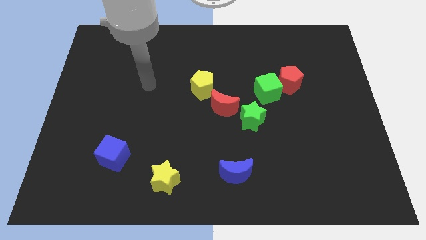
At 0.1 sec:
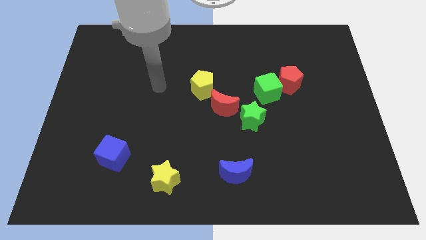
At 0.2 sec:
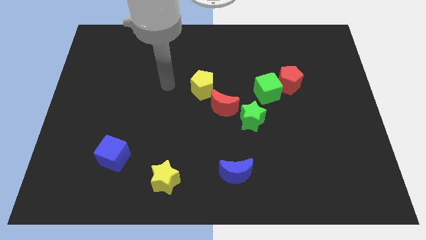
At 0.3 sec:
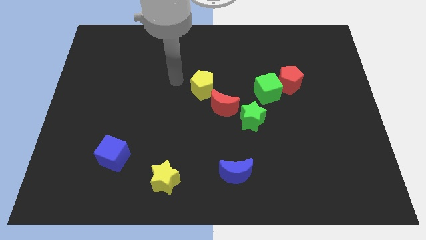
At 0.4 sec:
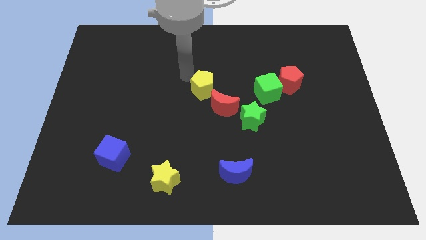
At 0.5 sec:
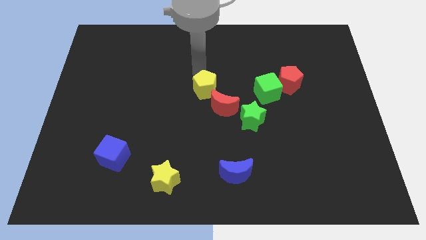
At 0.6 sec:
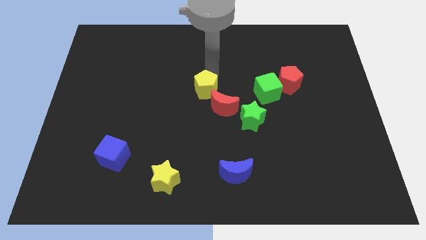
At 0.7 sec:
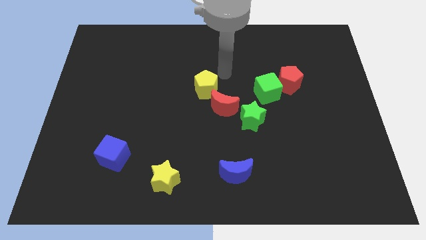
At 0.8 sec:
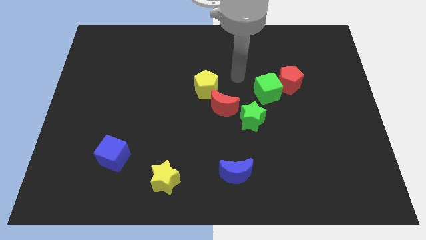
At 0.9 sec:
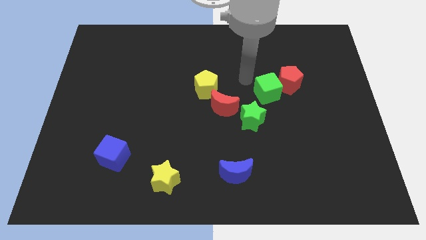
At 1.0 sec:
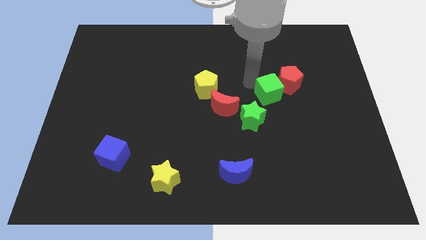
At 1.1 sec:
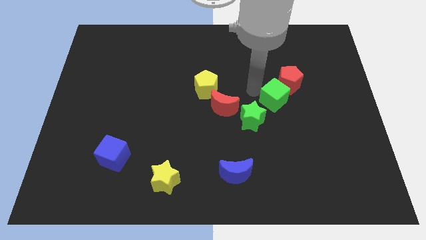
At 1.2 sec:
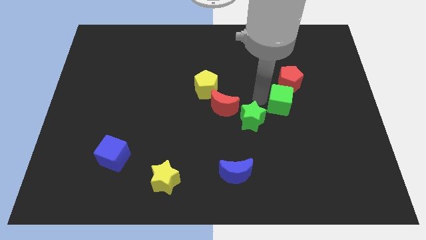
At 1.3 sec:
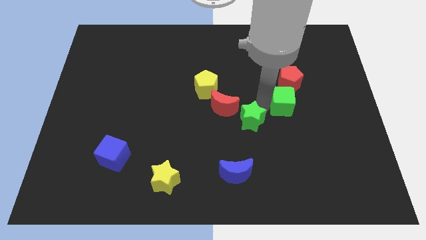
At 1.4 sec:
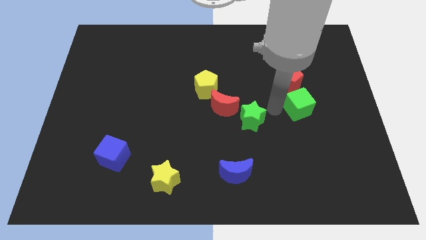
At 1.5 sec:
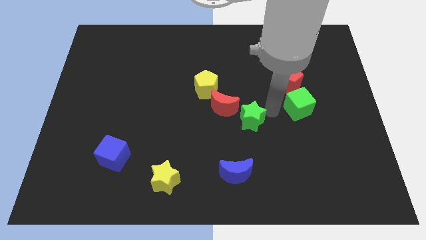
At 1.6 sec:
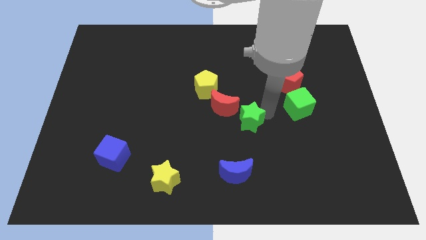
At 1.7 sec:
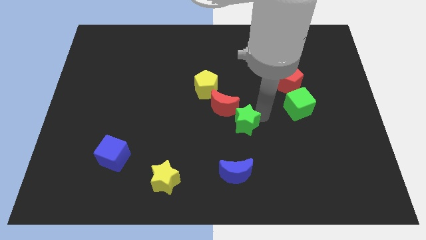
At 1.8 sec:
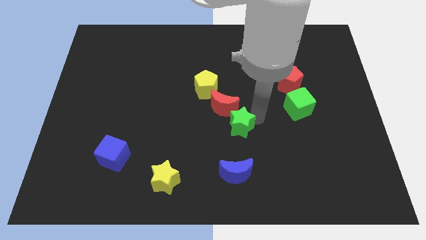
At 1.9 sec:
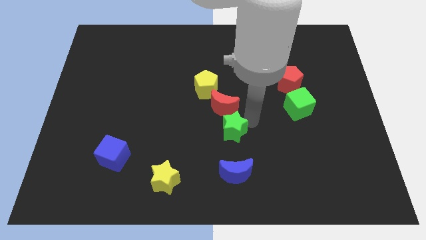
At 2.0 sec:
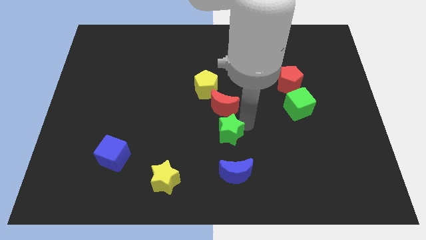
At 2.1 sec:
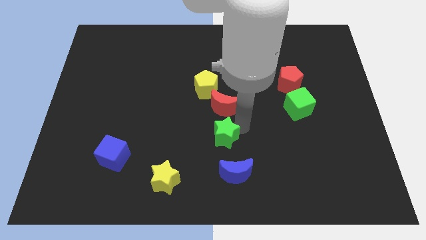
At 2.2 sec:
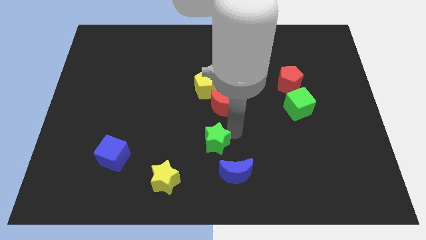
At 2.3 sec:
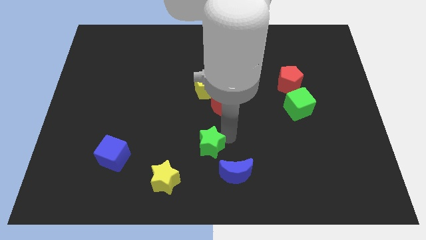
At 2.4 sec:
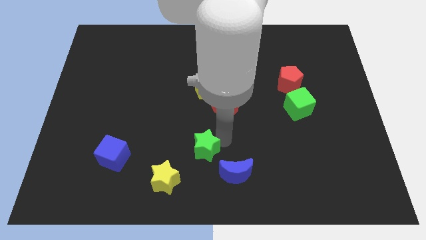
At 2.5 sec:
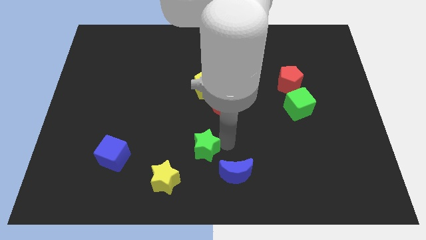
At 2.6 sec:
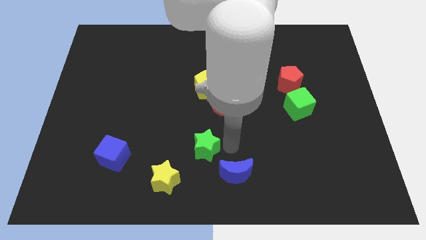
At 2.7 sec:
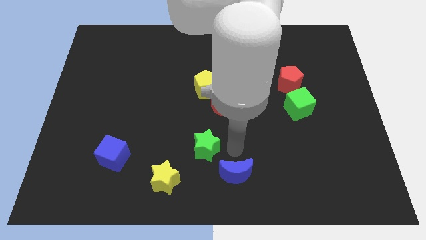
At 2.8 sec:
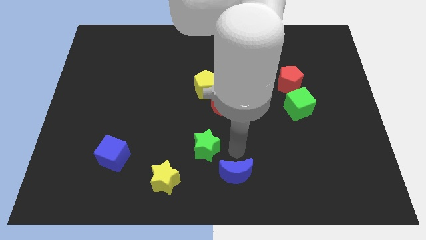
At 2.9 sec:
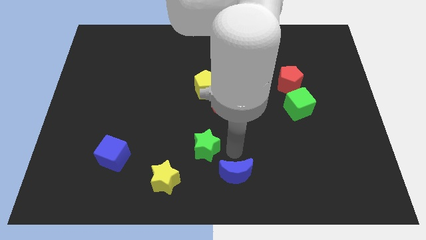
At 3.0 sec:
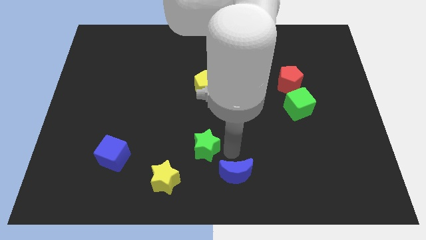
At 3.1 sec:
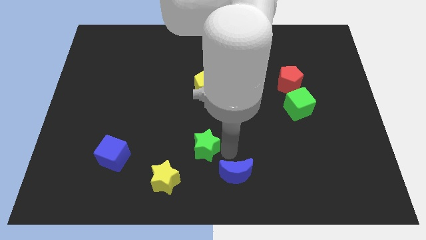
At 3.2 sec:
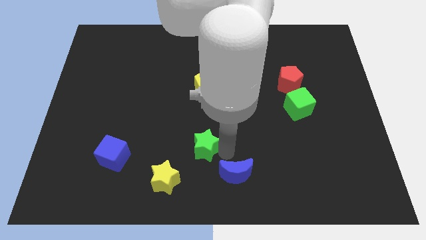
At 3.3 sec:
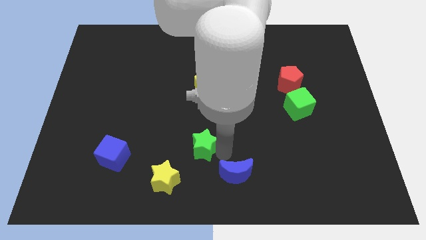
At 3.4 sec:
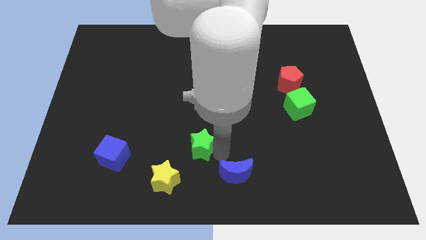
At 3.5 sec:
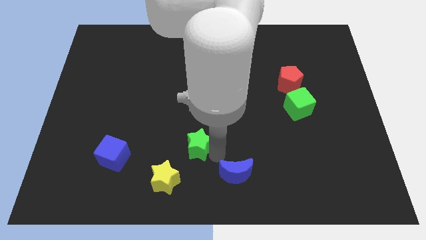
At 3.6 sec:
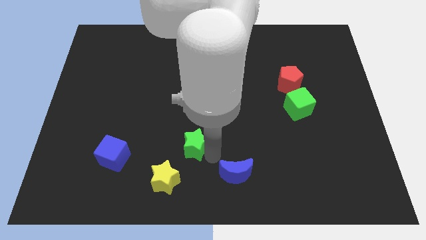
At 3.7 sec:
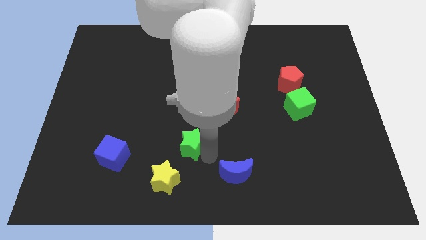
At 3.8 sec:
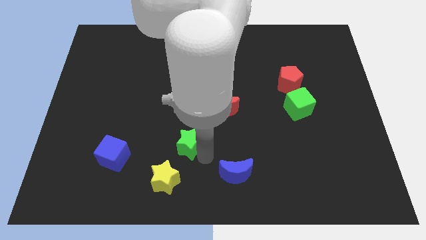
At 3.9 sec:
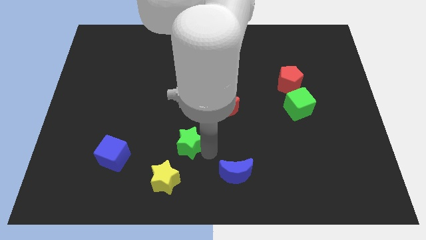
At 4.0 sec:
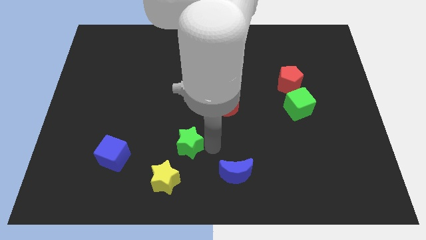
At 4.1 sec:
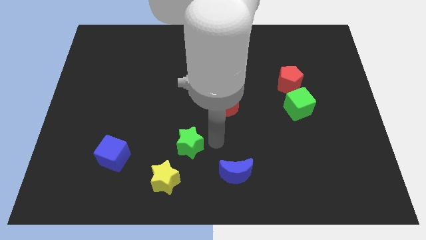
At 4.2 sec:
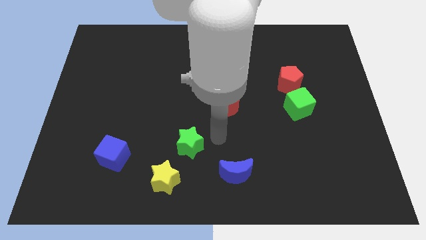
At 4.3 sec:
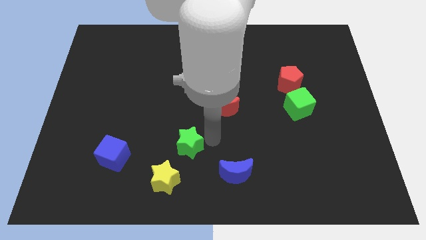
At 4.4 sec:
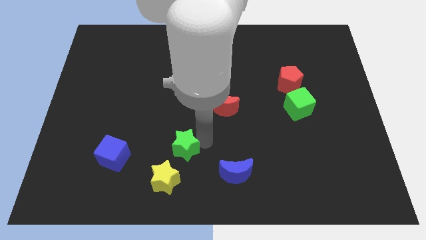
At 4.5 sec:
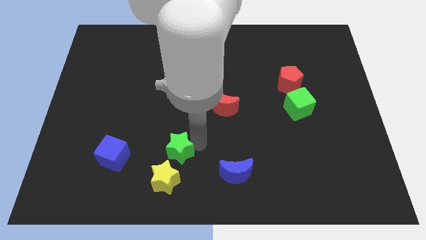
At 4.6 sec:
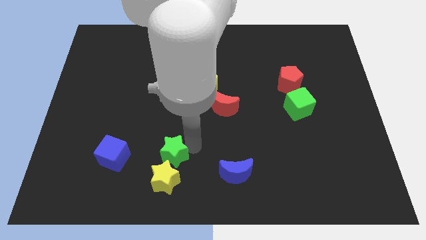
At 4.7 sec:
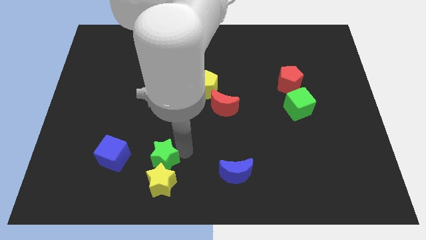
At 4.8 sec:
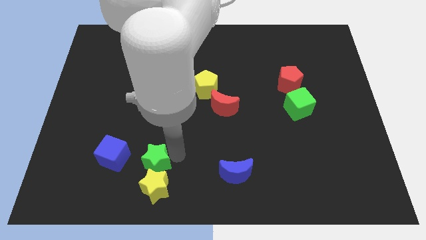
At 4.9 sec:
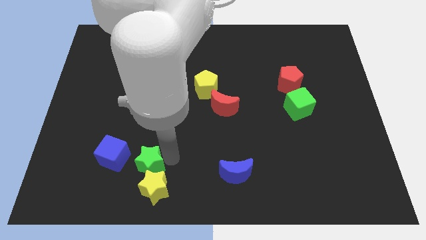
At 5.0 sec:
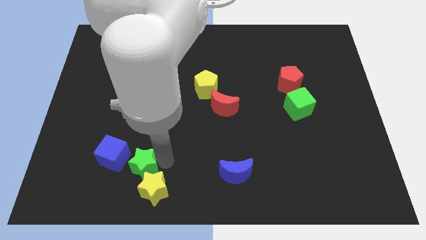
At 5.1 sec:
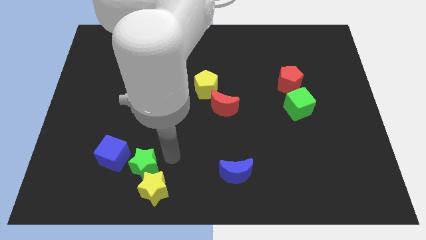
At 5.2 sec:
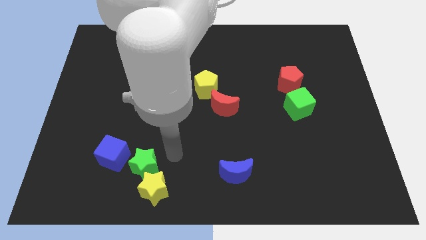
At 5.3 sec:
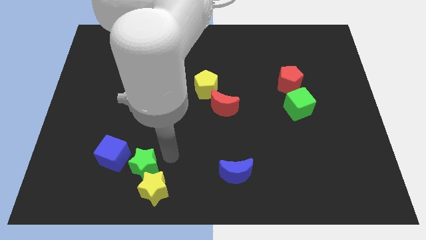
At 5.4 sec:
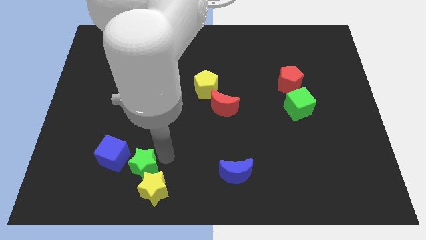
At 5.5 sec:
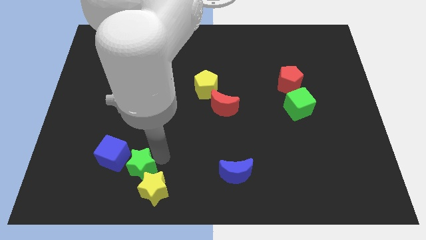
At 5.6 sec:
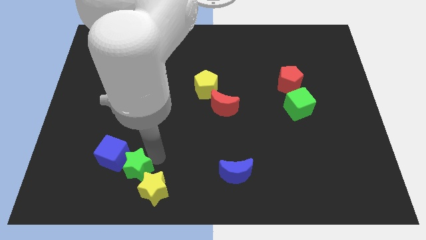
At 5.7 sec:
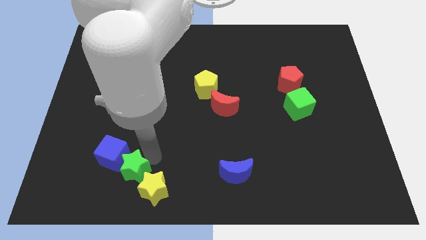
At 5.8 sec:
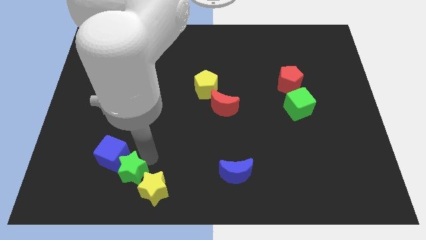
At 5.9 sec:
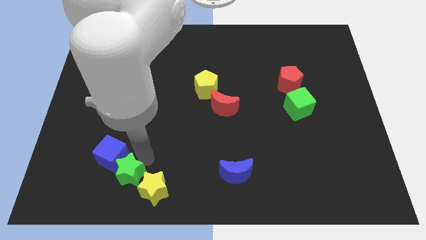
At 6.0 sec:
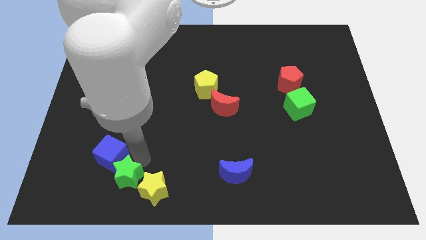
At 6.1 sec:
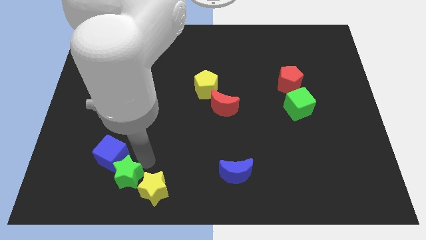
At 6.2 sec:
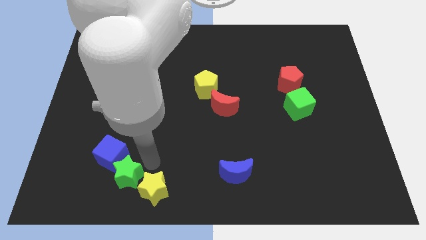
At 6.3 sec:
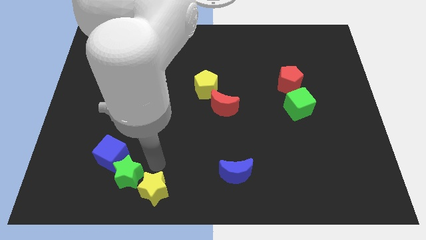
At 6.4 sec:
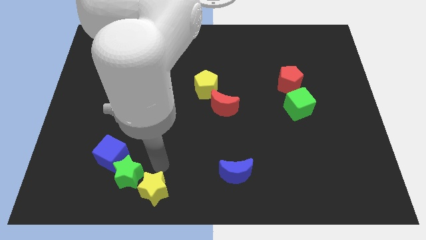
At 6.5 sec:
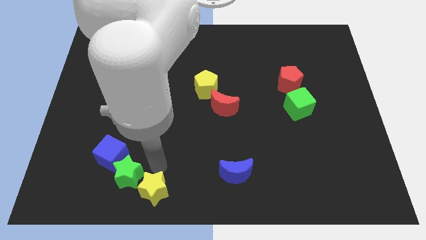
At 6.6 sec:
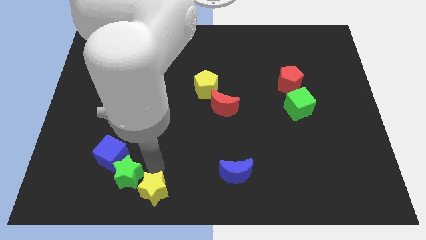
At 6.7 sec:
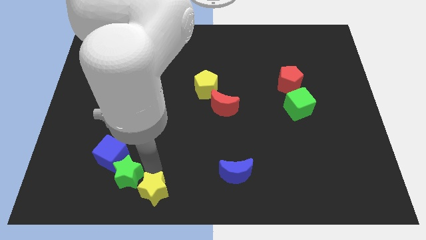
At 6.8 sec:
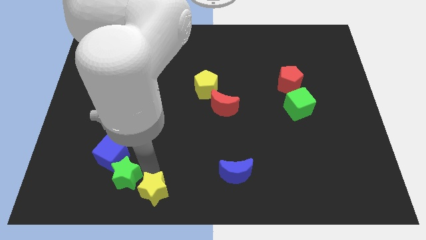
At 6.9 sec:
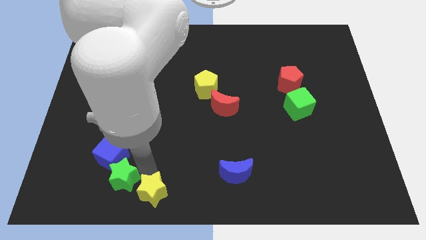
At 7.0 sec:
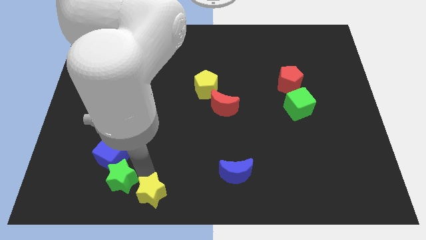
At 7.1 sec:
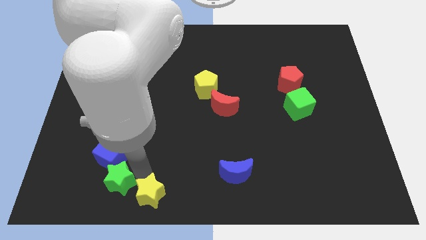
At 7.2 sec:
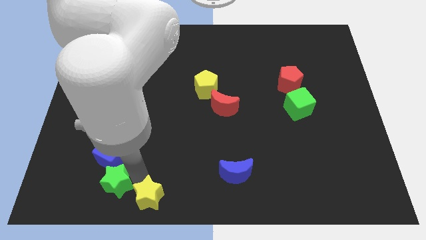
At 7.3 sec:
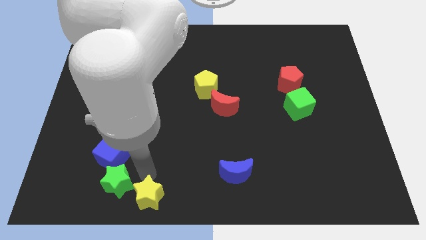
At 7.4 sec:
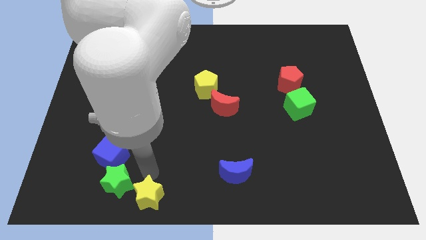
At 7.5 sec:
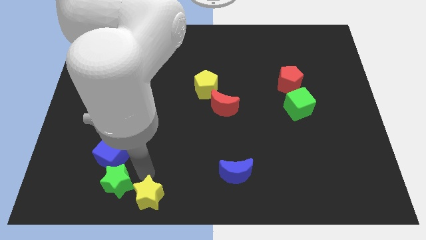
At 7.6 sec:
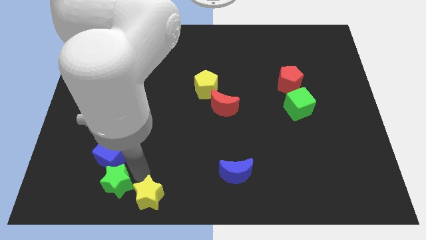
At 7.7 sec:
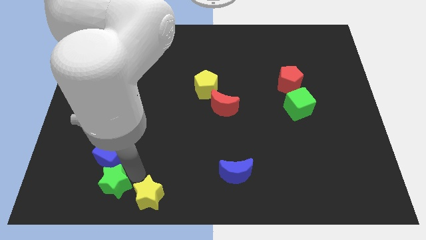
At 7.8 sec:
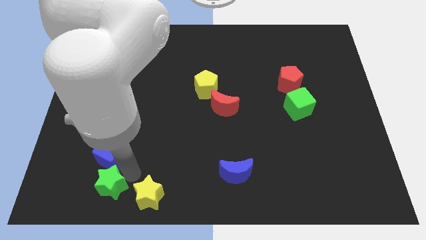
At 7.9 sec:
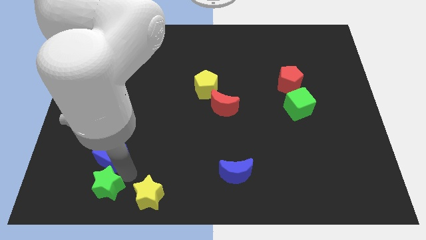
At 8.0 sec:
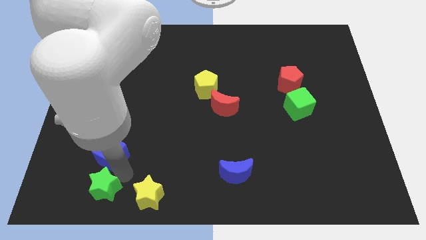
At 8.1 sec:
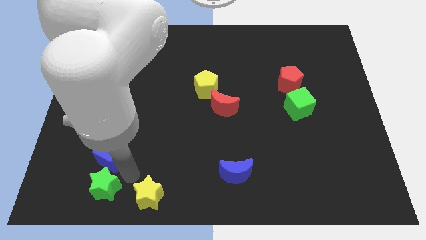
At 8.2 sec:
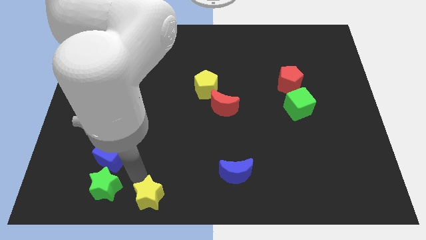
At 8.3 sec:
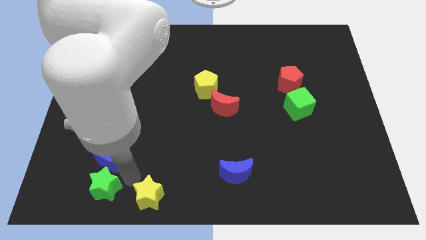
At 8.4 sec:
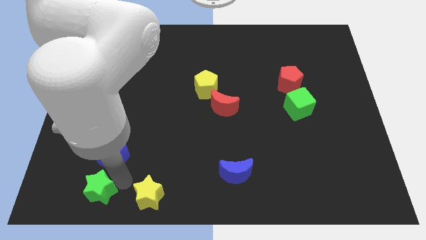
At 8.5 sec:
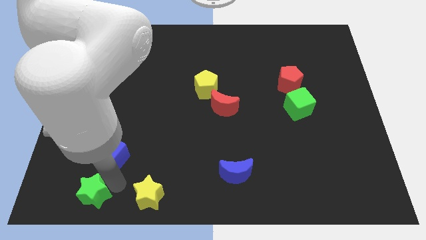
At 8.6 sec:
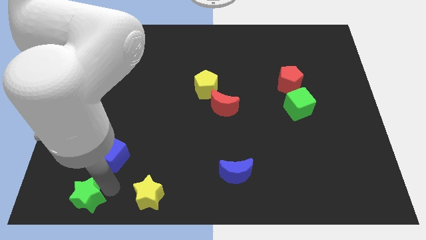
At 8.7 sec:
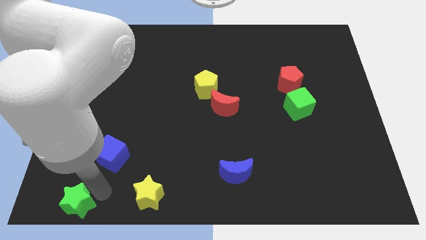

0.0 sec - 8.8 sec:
put the green star to the bottom left of the board
